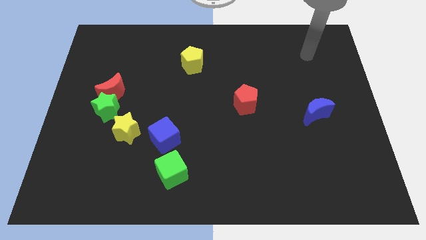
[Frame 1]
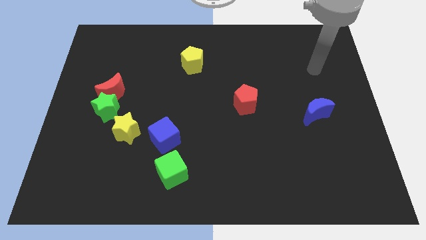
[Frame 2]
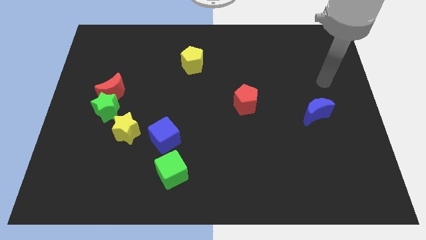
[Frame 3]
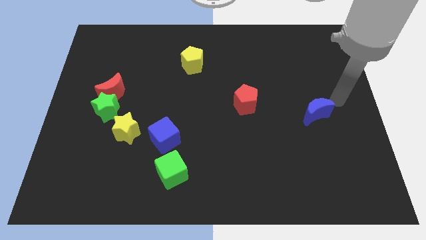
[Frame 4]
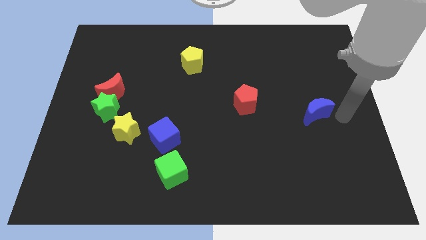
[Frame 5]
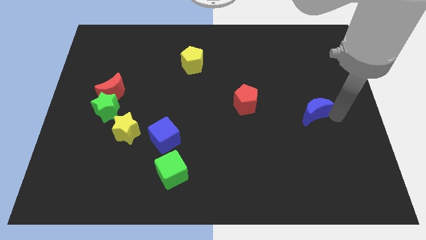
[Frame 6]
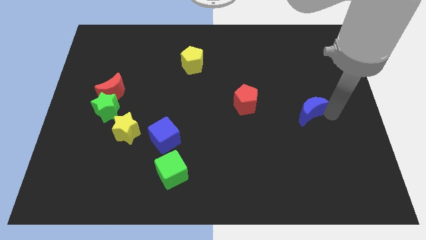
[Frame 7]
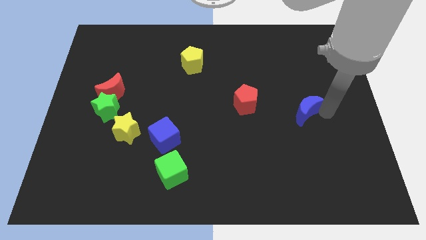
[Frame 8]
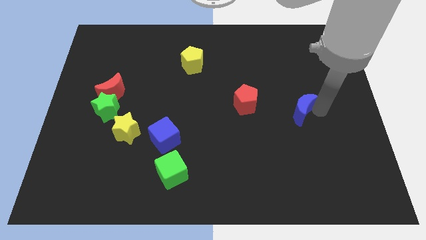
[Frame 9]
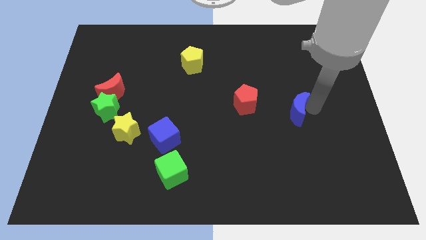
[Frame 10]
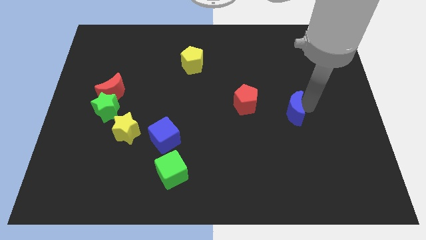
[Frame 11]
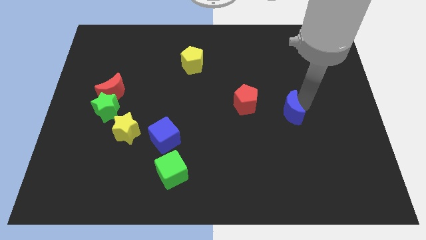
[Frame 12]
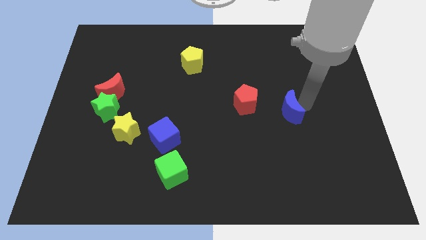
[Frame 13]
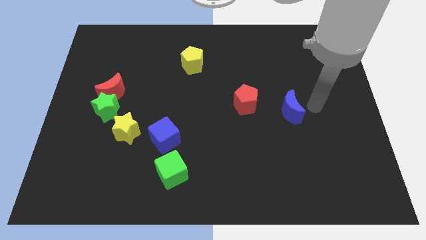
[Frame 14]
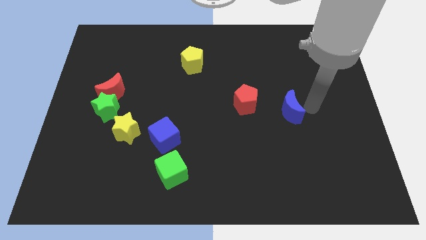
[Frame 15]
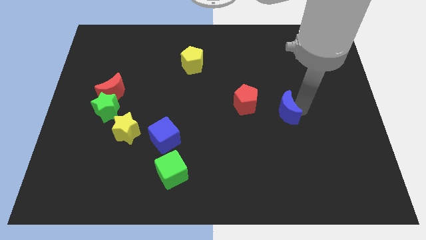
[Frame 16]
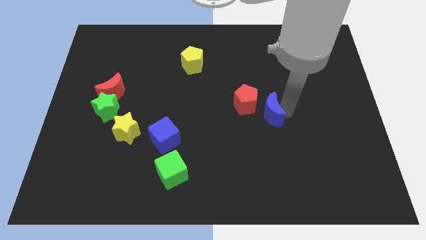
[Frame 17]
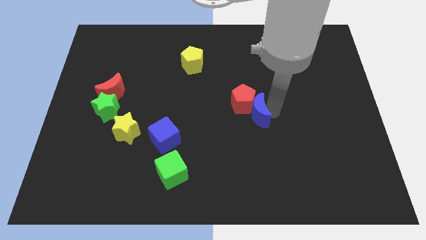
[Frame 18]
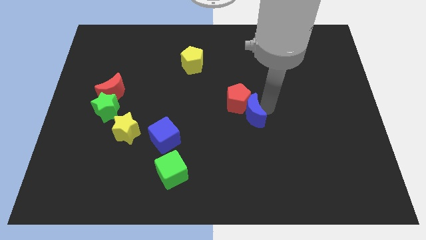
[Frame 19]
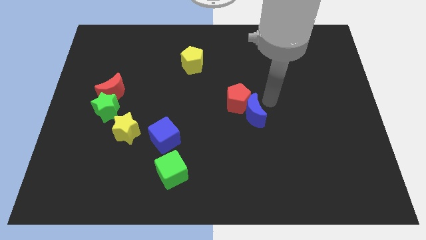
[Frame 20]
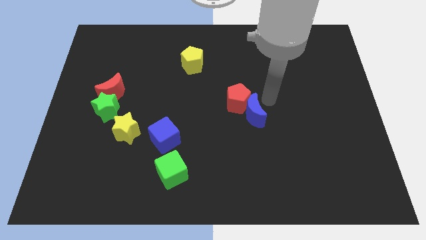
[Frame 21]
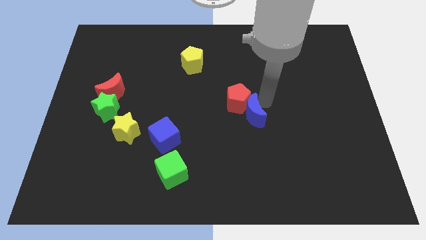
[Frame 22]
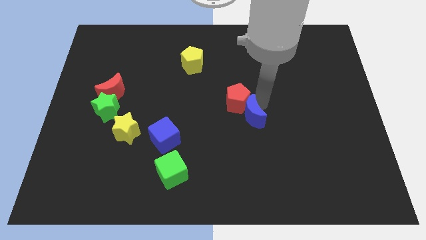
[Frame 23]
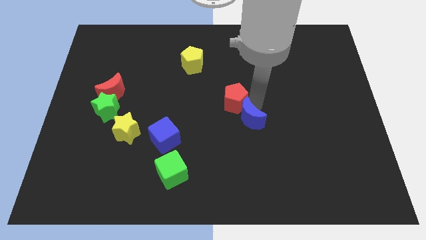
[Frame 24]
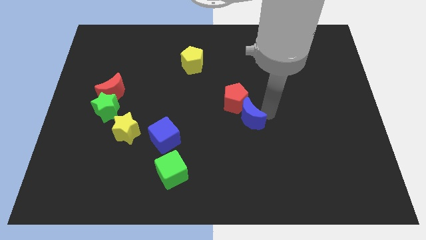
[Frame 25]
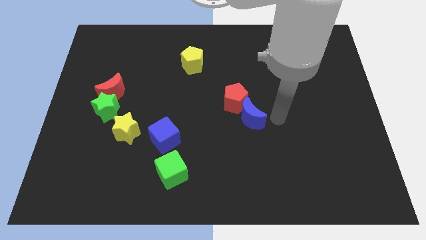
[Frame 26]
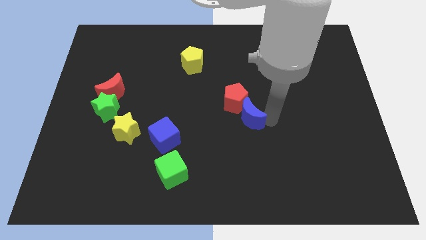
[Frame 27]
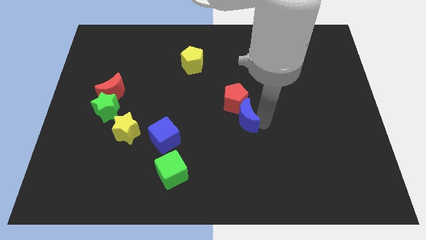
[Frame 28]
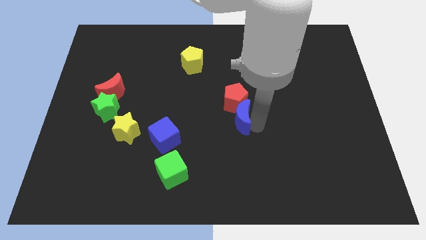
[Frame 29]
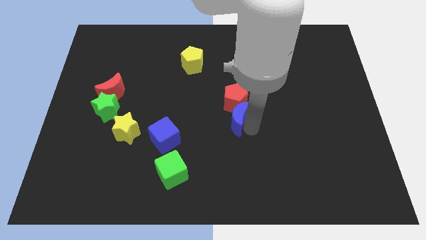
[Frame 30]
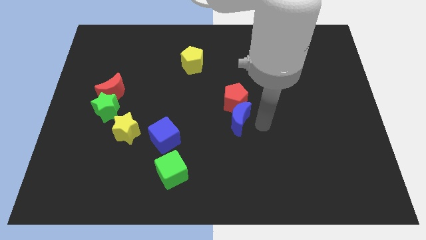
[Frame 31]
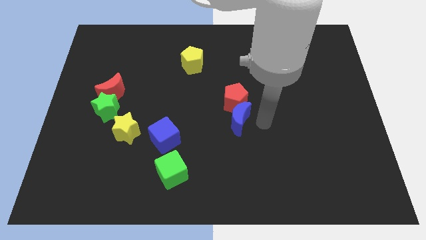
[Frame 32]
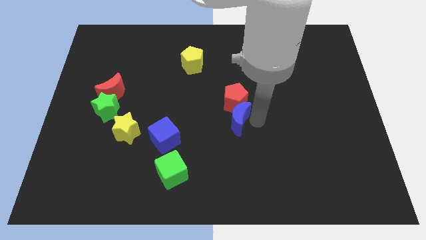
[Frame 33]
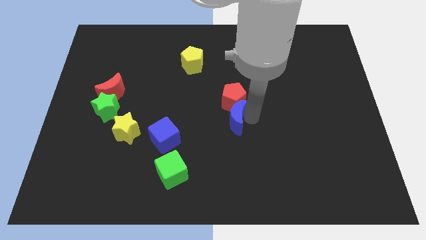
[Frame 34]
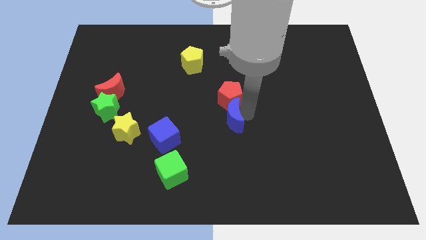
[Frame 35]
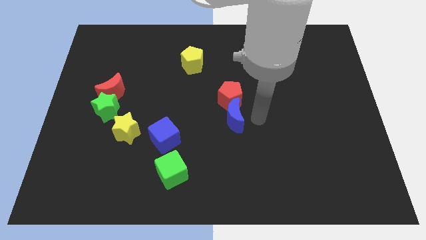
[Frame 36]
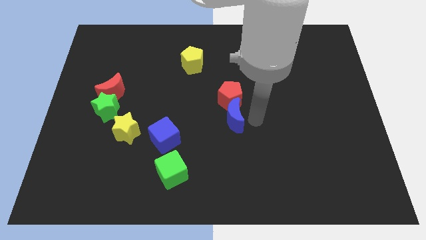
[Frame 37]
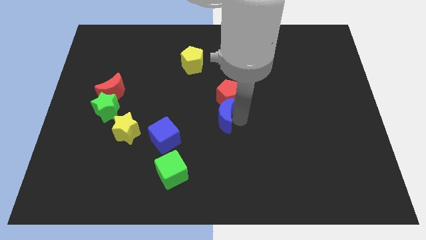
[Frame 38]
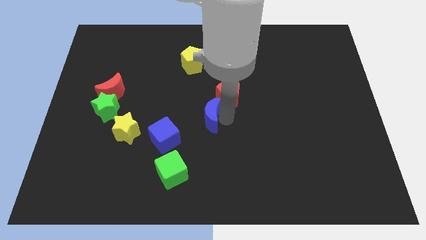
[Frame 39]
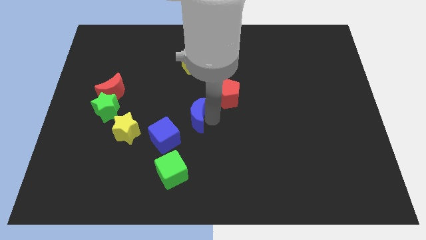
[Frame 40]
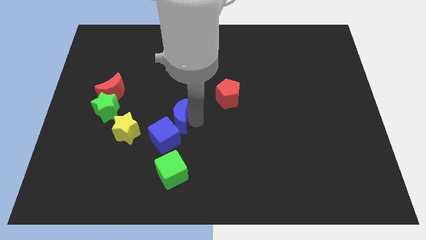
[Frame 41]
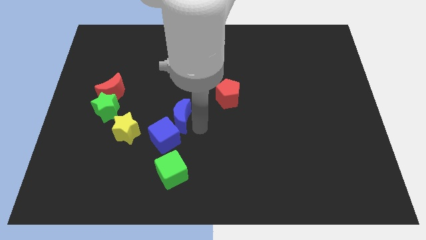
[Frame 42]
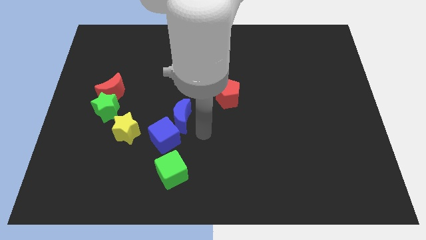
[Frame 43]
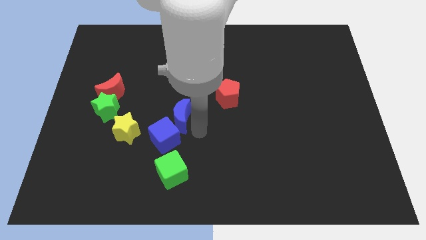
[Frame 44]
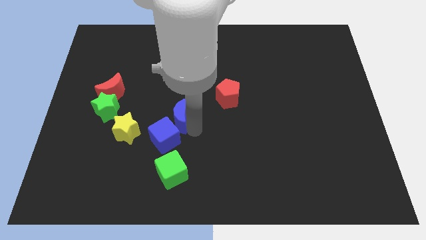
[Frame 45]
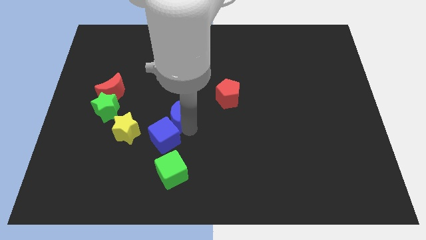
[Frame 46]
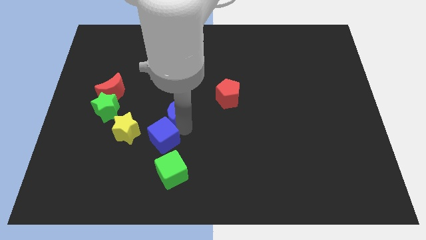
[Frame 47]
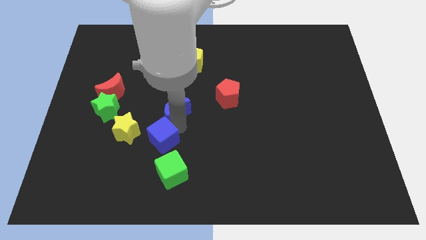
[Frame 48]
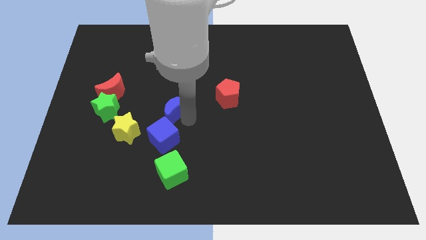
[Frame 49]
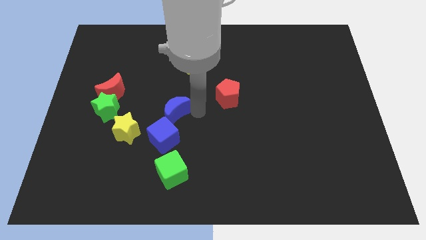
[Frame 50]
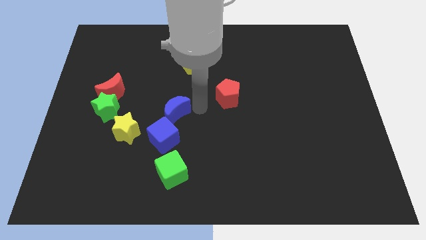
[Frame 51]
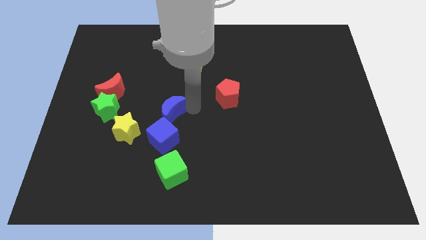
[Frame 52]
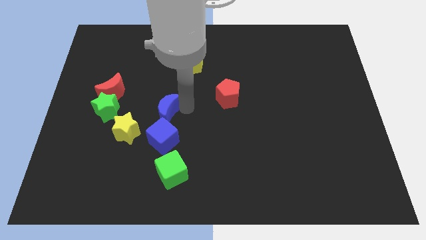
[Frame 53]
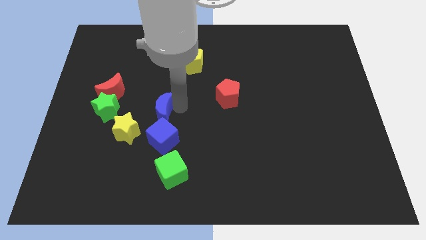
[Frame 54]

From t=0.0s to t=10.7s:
move the blue moon to the top left side of the blue cube
